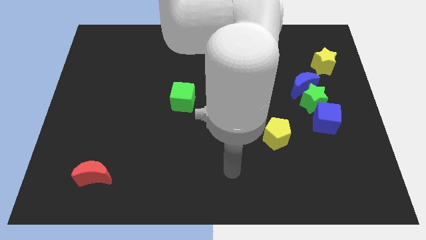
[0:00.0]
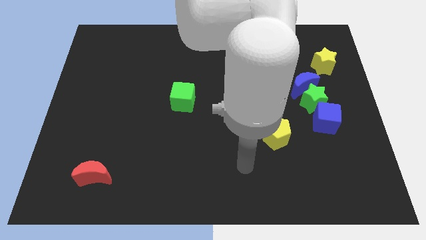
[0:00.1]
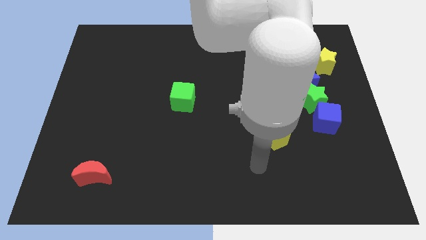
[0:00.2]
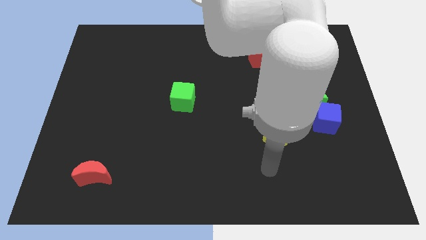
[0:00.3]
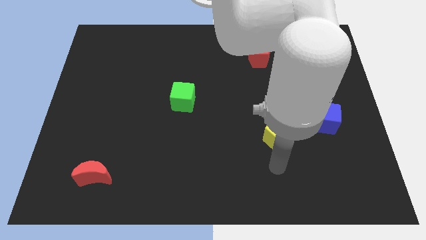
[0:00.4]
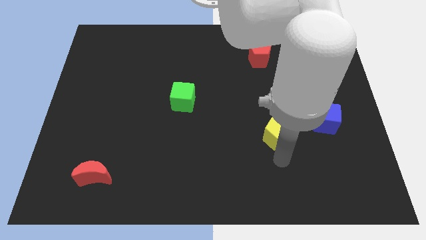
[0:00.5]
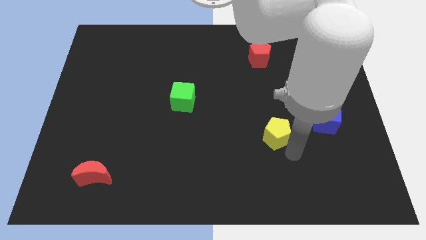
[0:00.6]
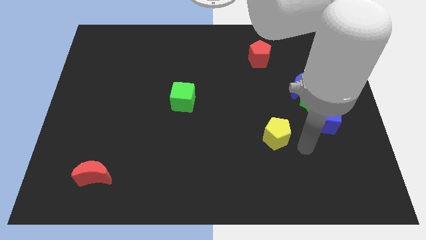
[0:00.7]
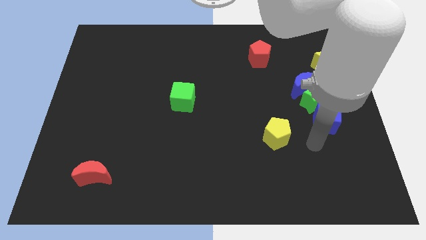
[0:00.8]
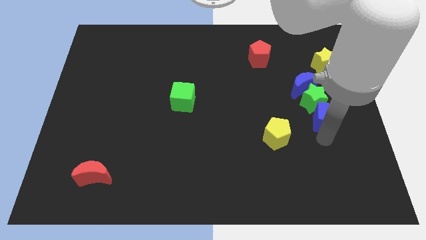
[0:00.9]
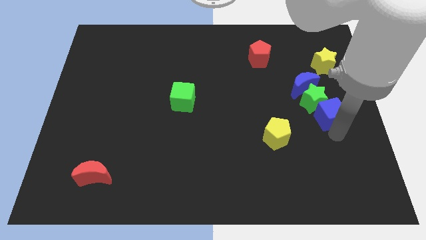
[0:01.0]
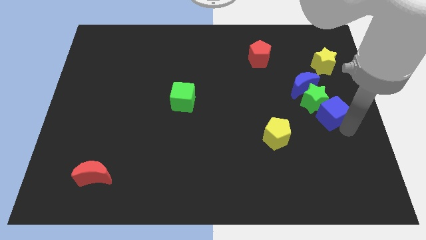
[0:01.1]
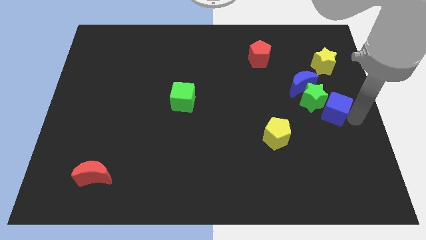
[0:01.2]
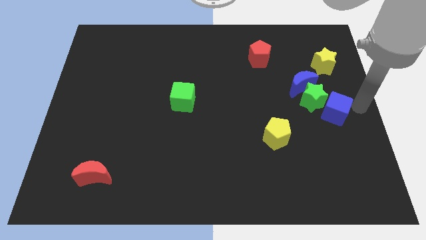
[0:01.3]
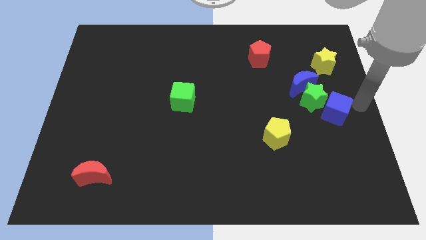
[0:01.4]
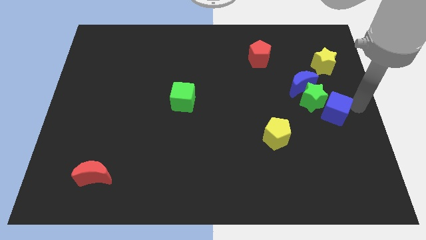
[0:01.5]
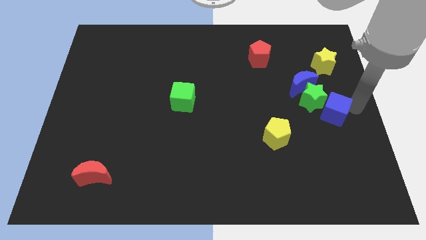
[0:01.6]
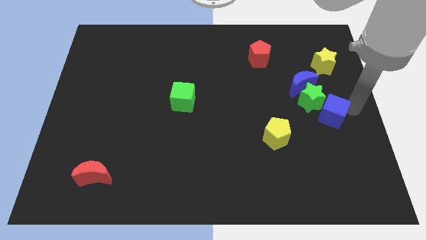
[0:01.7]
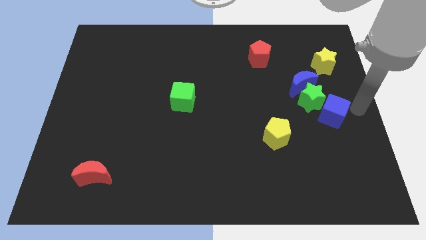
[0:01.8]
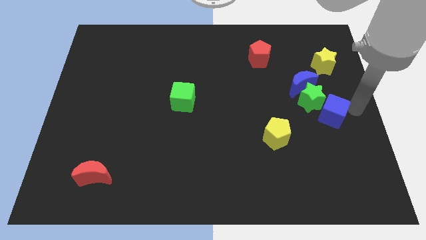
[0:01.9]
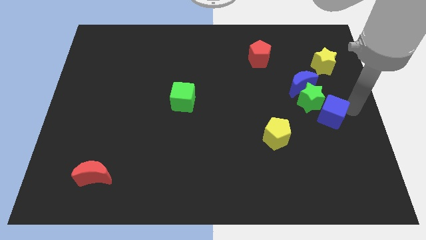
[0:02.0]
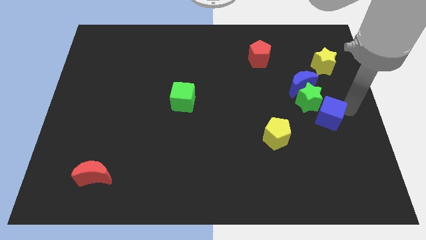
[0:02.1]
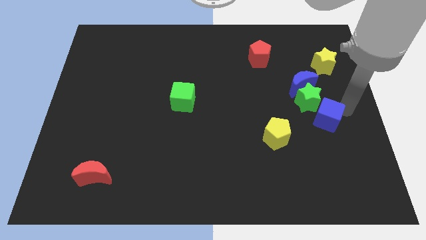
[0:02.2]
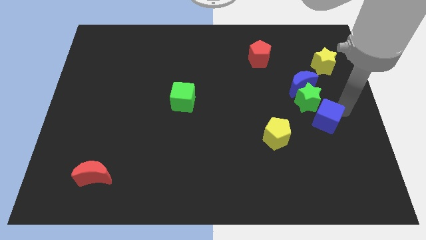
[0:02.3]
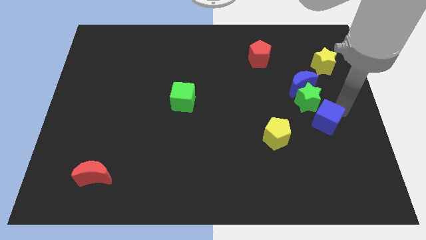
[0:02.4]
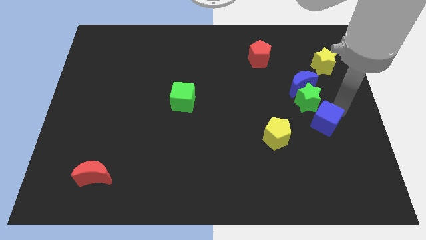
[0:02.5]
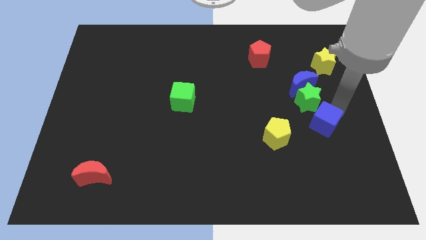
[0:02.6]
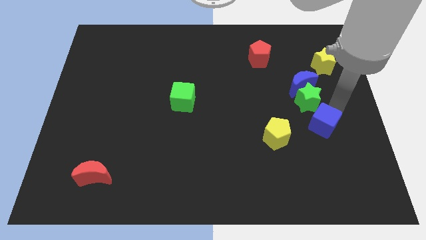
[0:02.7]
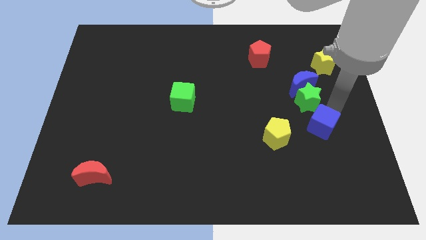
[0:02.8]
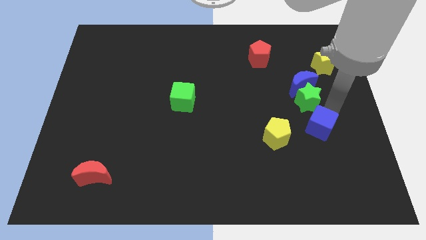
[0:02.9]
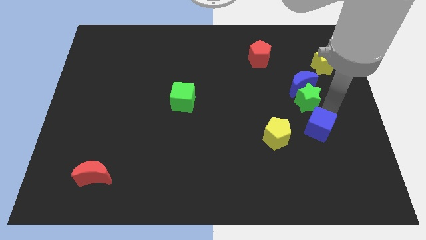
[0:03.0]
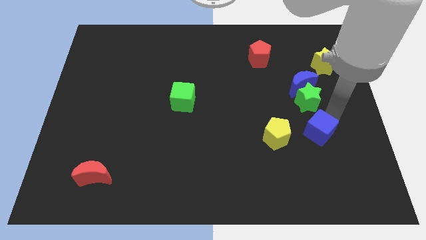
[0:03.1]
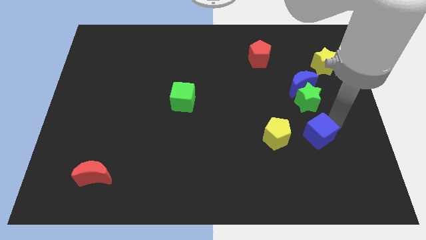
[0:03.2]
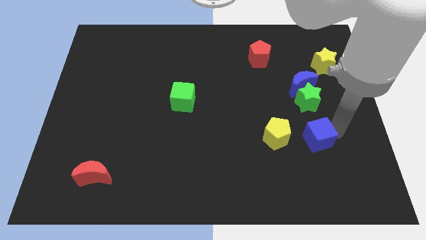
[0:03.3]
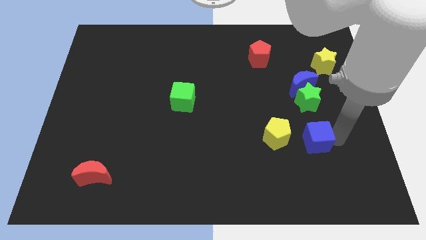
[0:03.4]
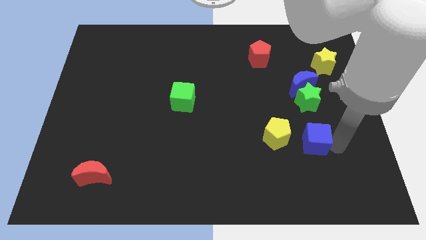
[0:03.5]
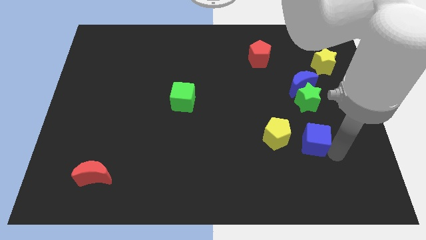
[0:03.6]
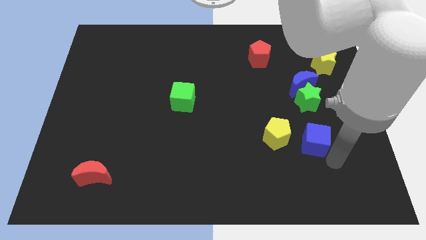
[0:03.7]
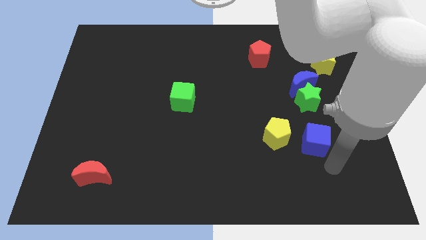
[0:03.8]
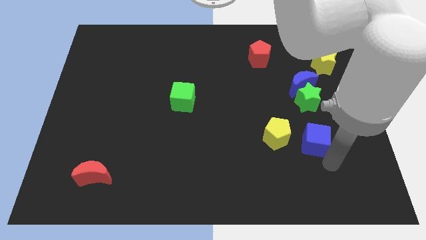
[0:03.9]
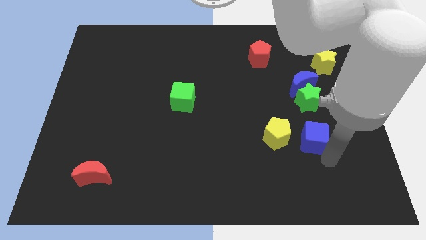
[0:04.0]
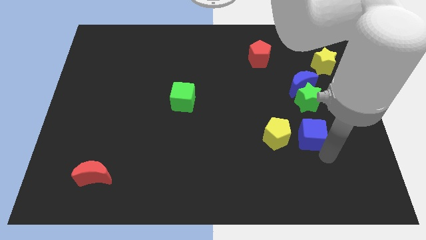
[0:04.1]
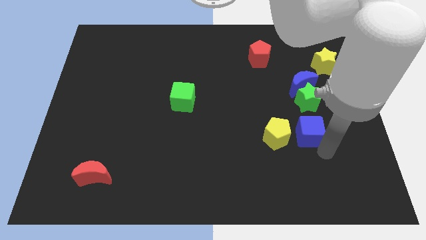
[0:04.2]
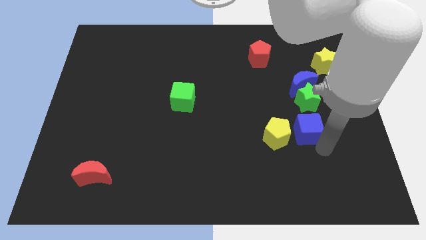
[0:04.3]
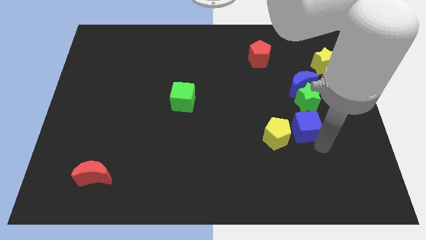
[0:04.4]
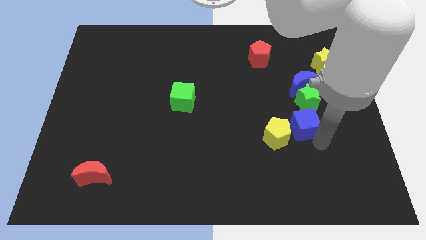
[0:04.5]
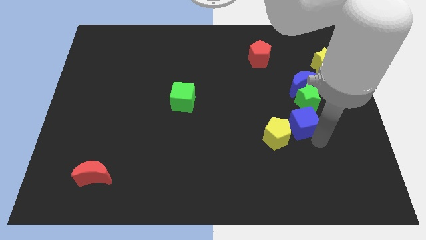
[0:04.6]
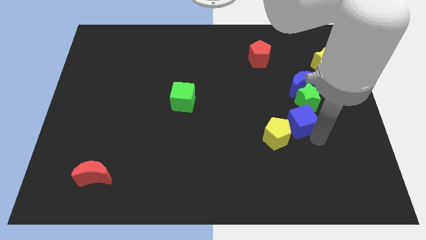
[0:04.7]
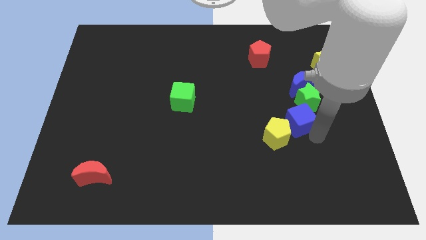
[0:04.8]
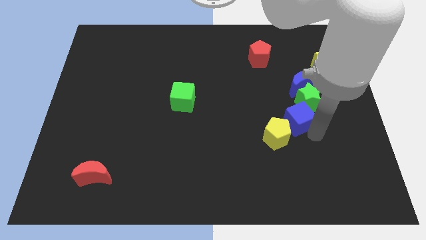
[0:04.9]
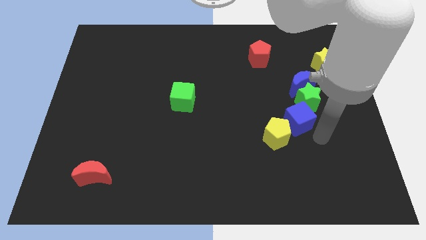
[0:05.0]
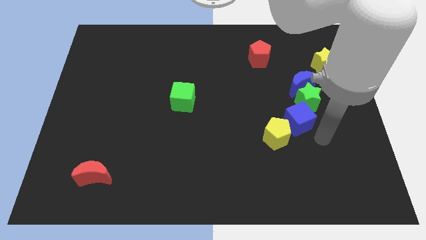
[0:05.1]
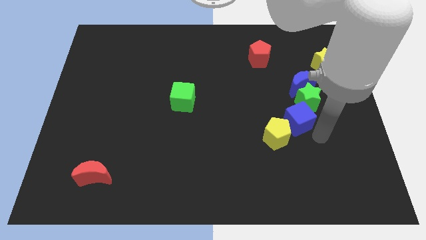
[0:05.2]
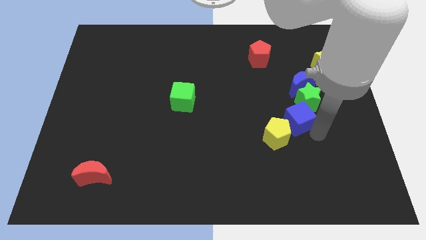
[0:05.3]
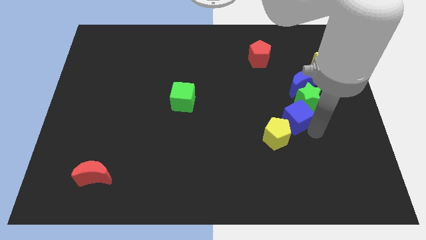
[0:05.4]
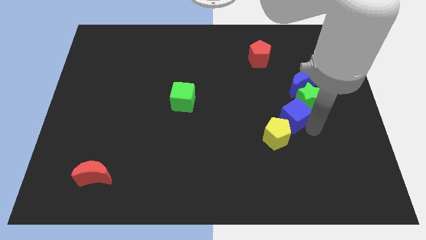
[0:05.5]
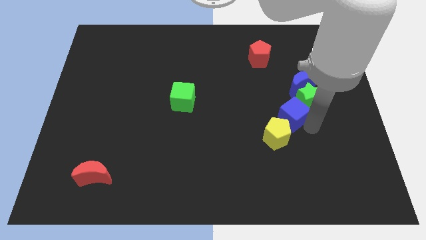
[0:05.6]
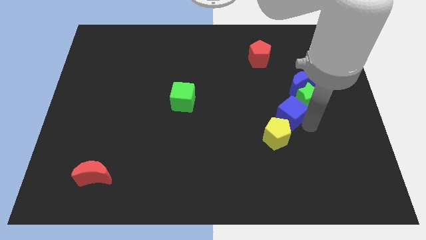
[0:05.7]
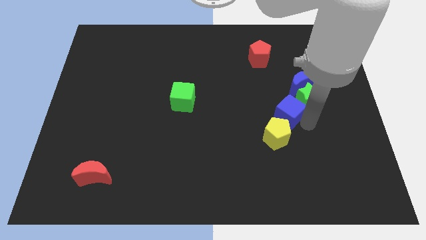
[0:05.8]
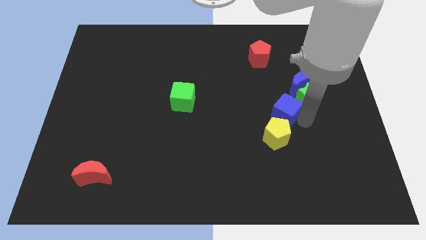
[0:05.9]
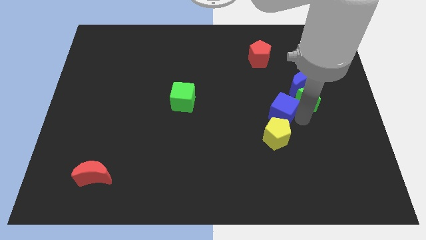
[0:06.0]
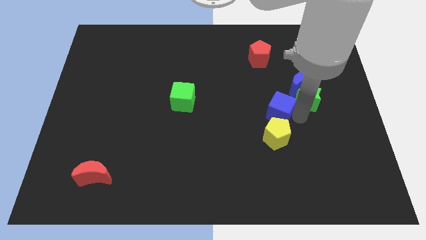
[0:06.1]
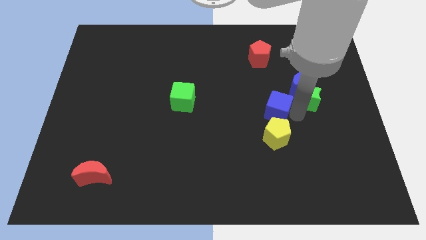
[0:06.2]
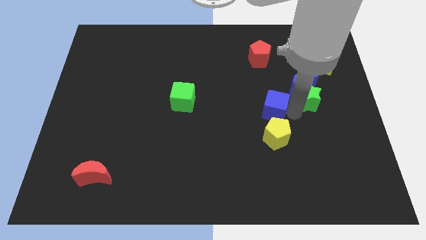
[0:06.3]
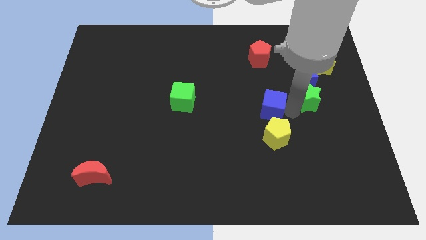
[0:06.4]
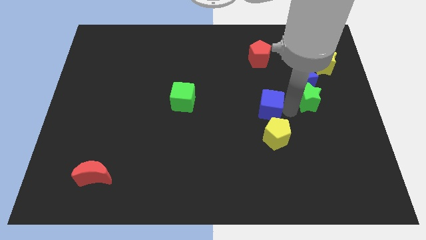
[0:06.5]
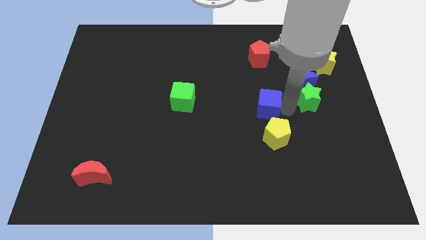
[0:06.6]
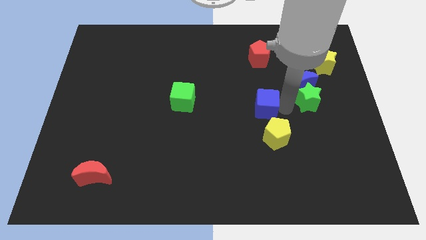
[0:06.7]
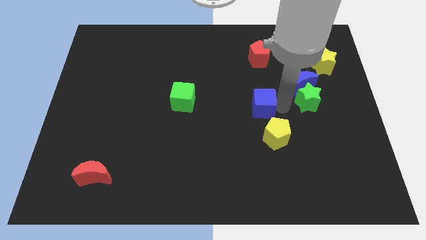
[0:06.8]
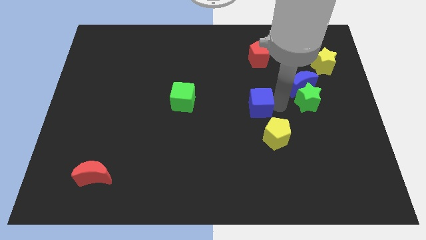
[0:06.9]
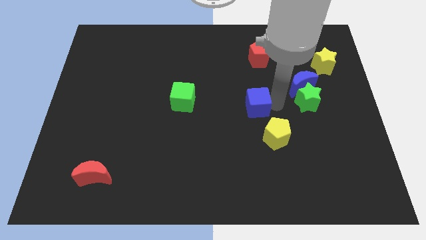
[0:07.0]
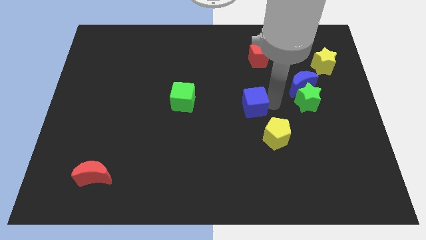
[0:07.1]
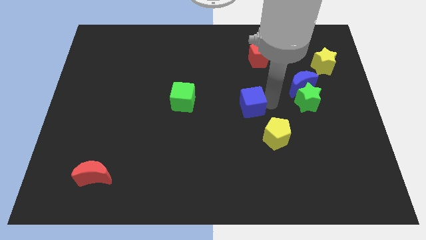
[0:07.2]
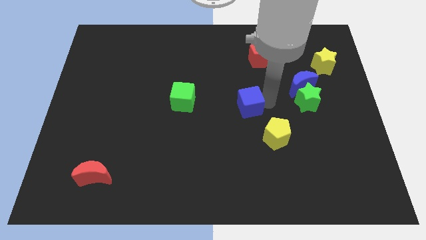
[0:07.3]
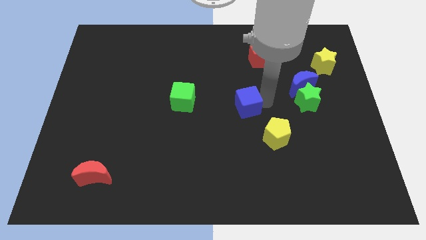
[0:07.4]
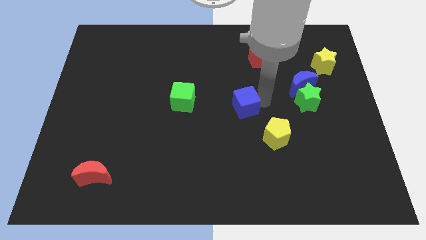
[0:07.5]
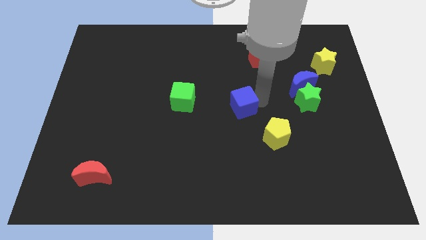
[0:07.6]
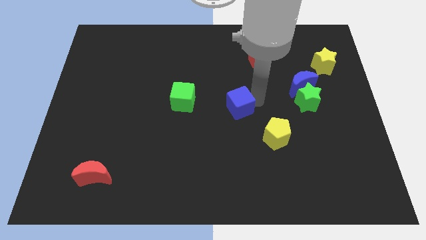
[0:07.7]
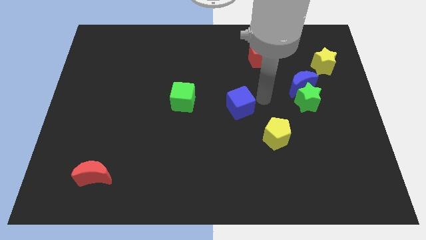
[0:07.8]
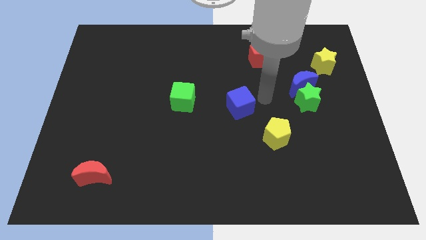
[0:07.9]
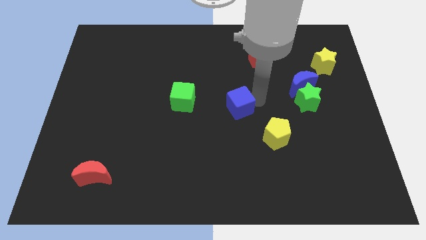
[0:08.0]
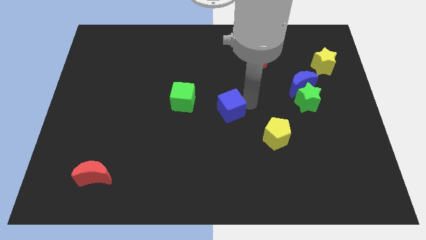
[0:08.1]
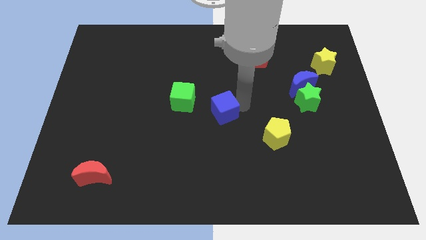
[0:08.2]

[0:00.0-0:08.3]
slide the blue cube diagonally down and to the right of the green cube
